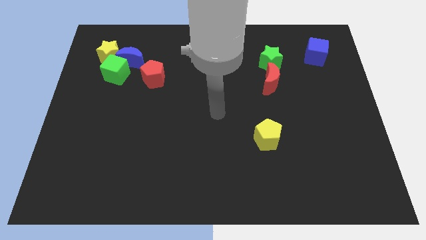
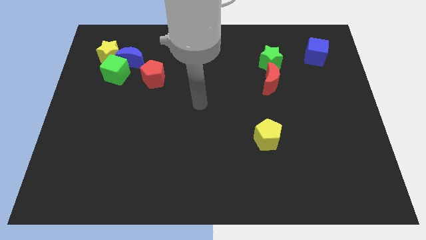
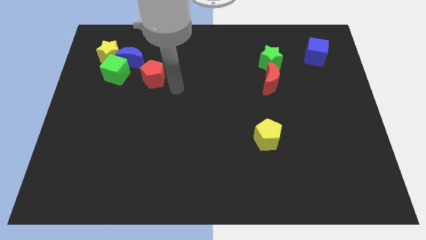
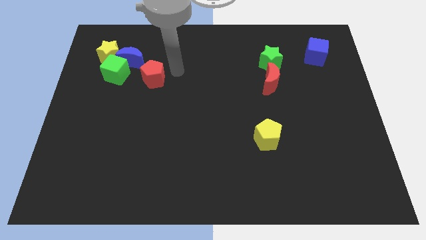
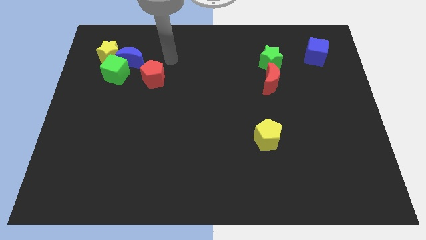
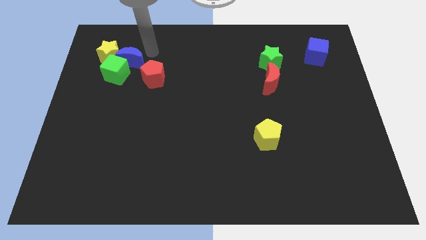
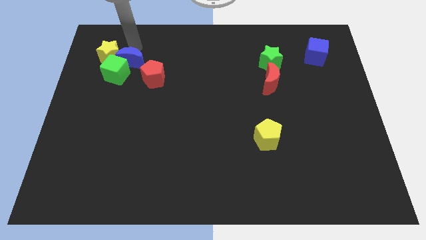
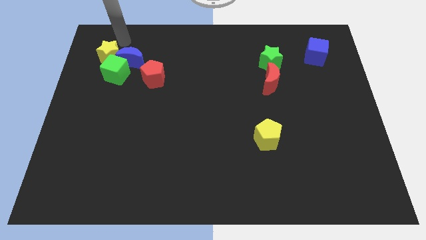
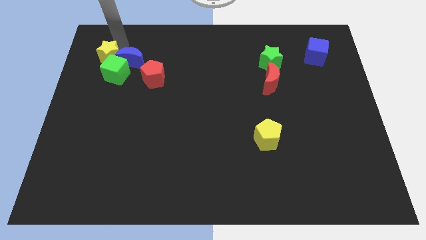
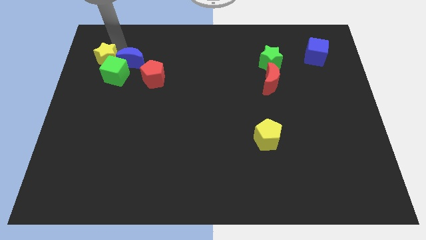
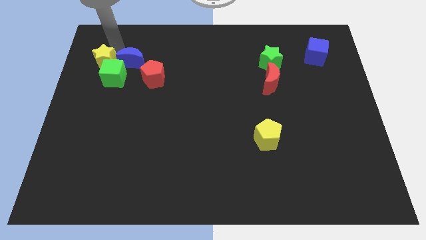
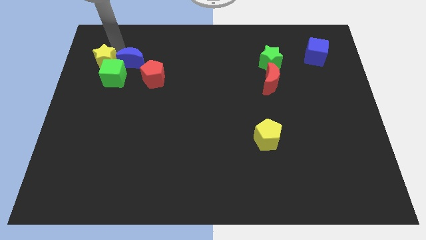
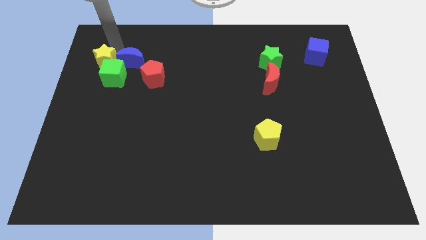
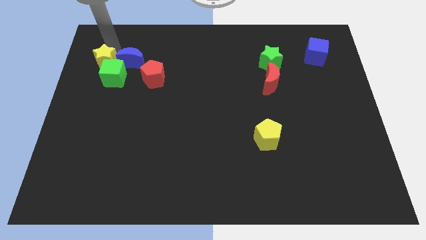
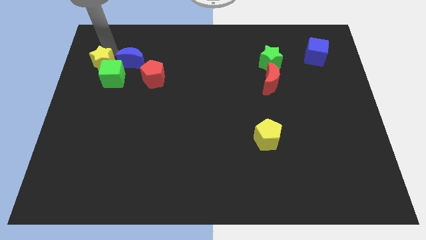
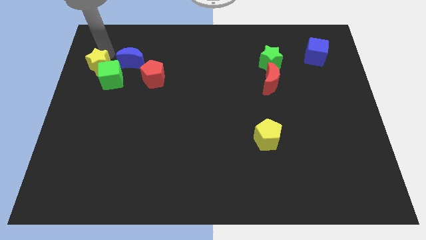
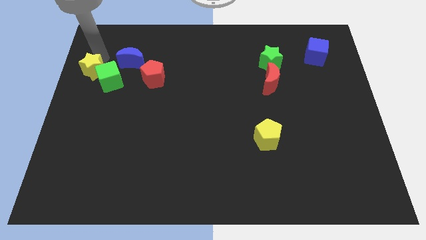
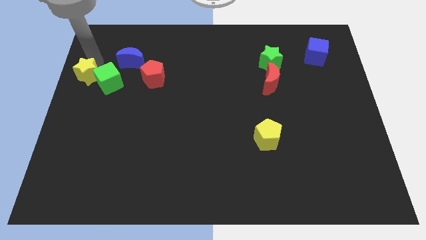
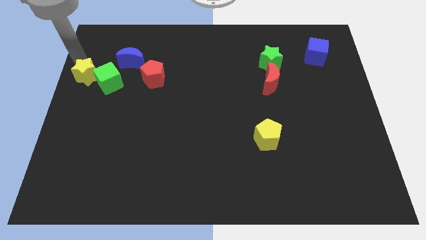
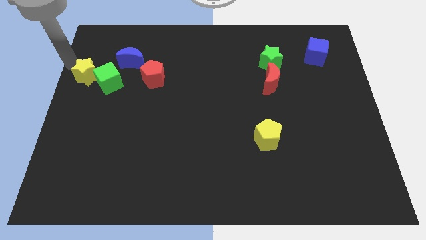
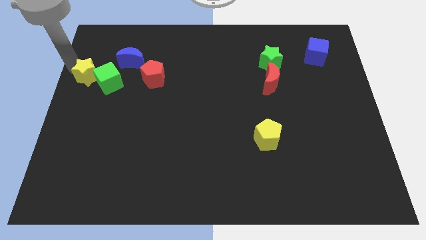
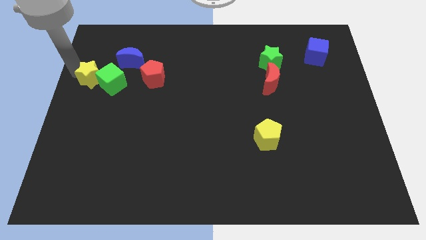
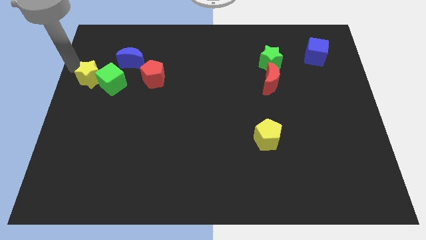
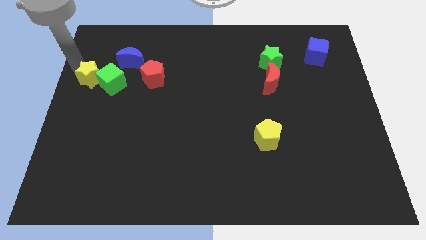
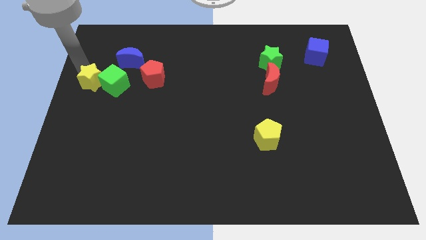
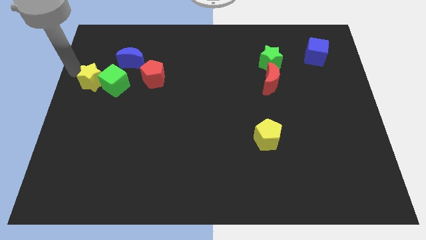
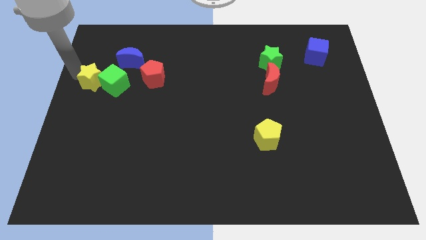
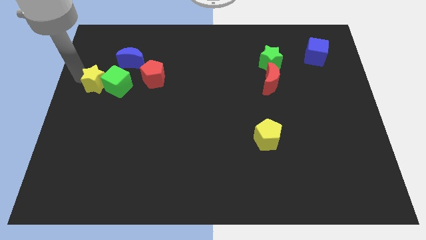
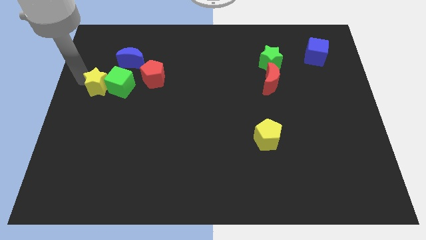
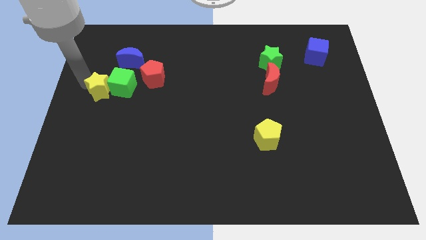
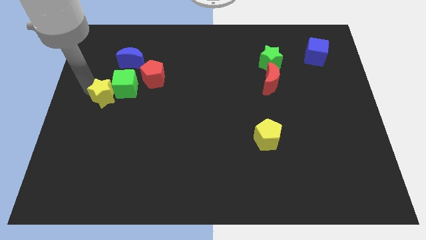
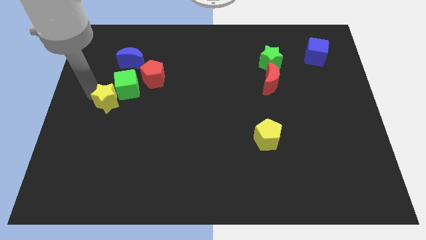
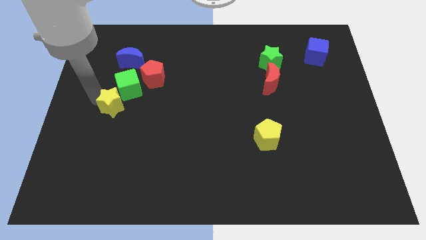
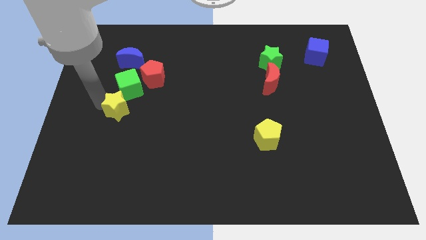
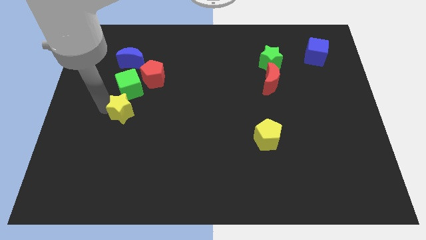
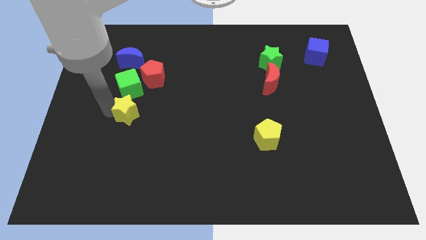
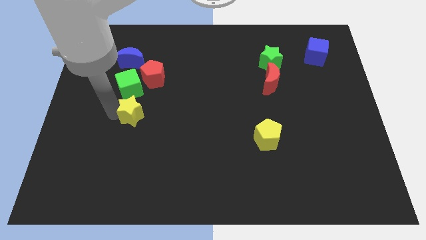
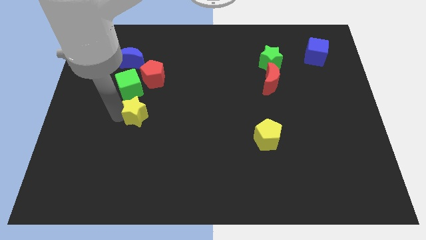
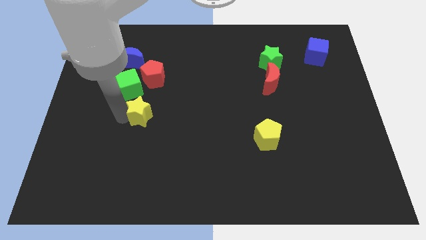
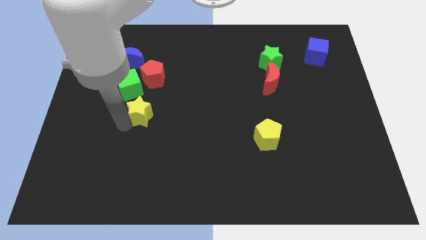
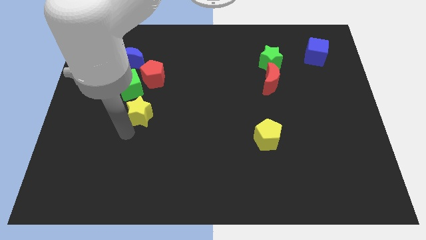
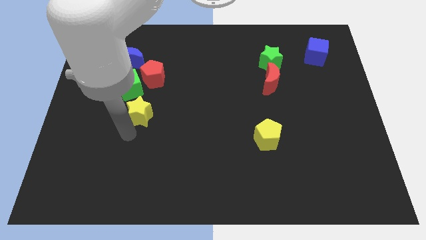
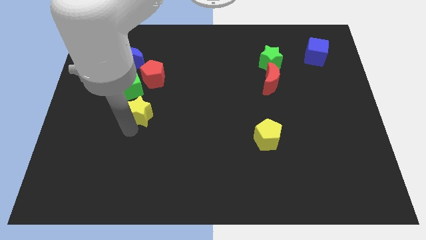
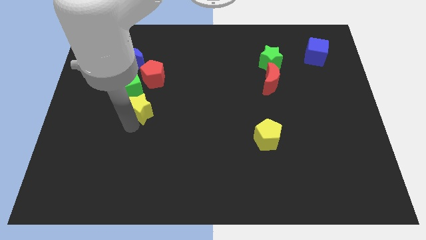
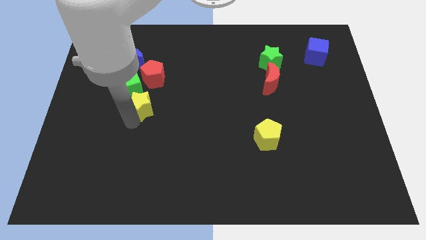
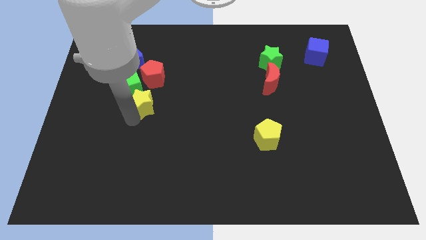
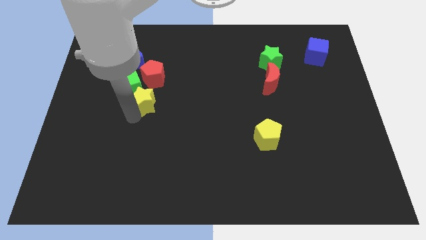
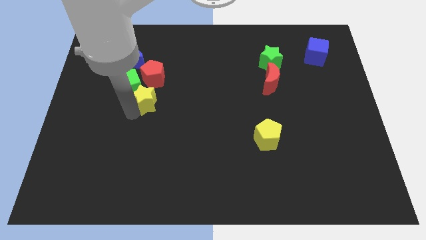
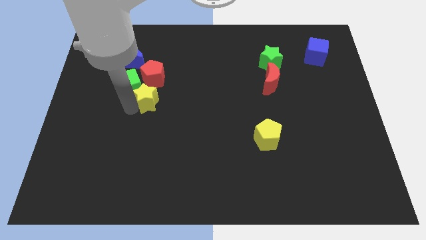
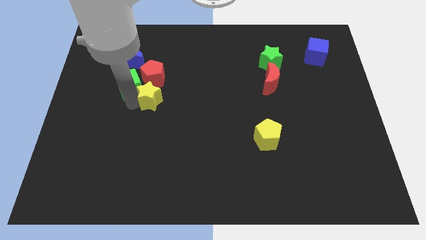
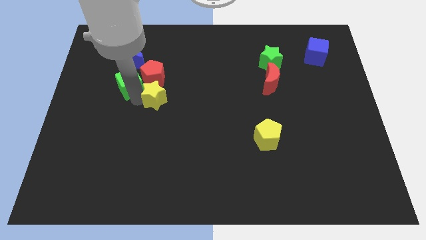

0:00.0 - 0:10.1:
slide the yellow star to the bottom right of the green cube

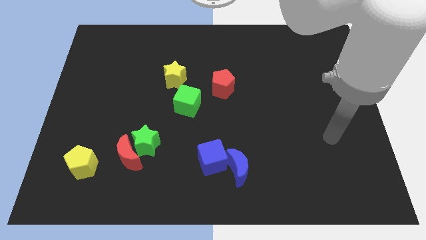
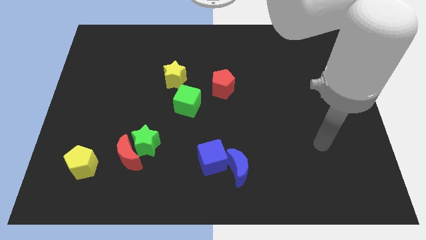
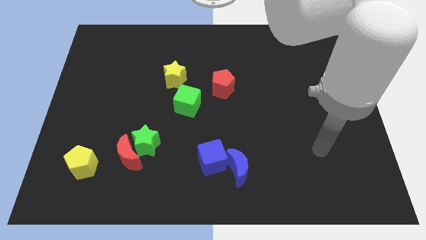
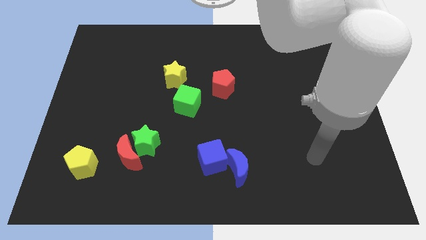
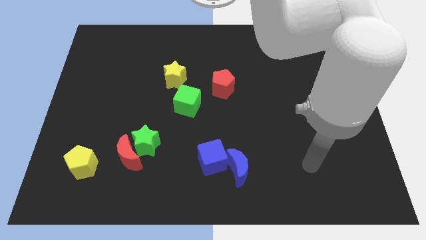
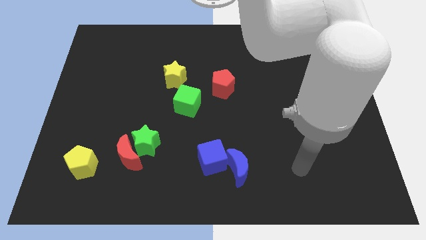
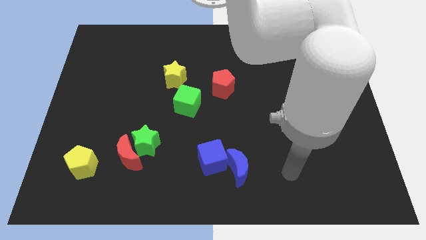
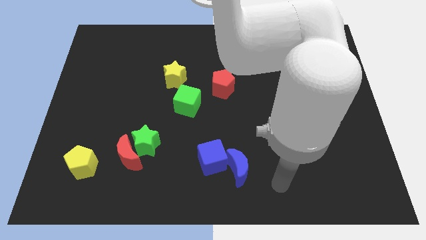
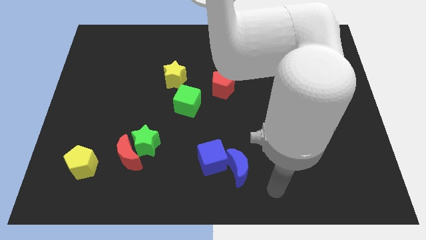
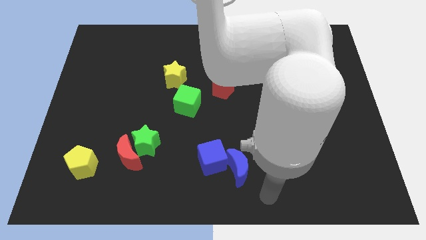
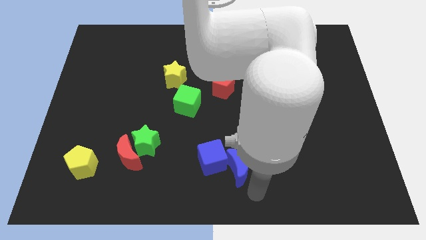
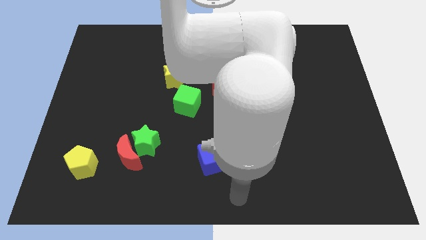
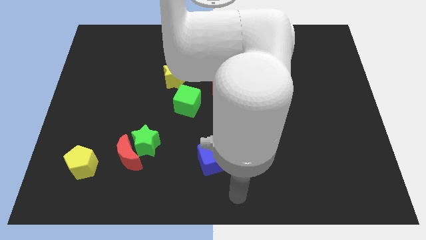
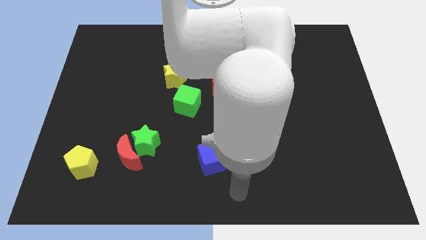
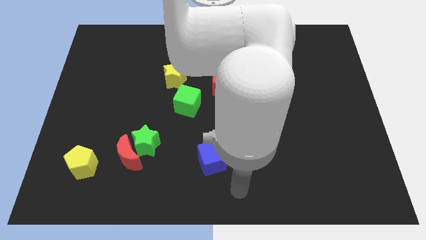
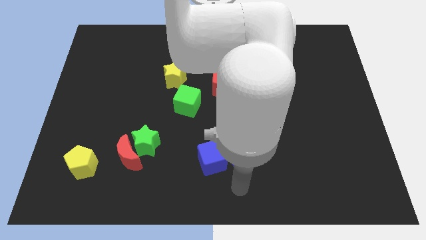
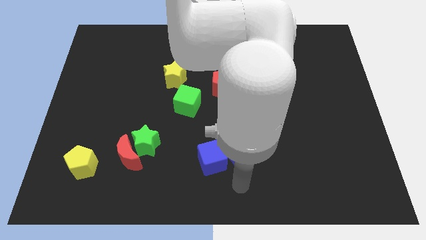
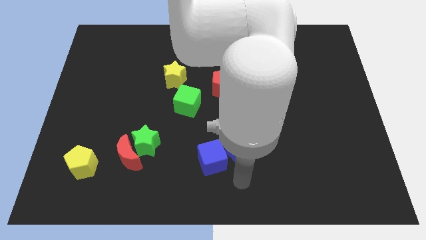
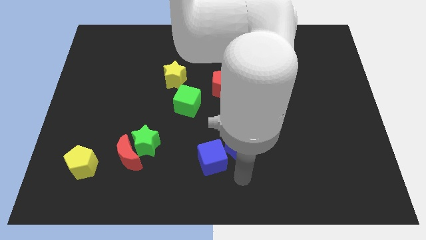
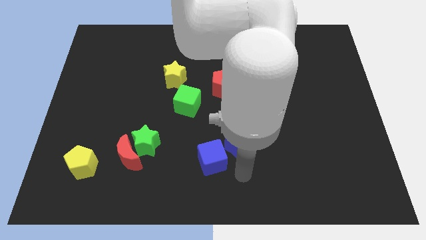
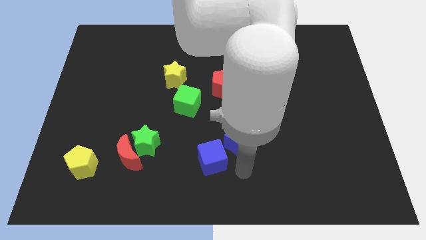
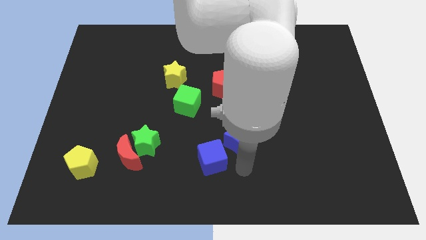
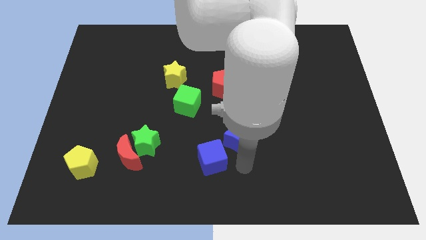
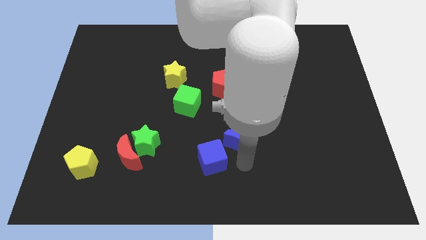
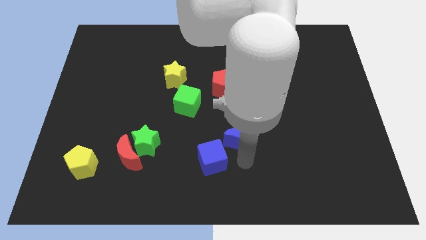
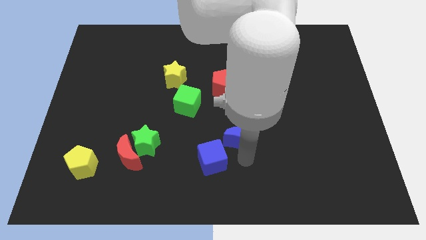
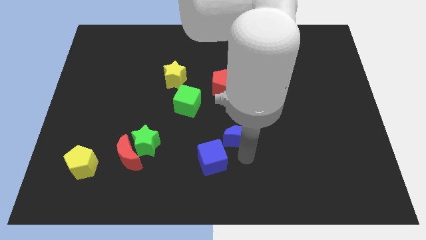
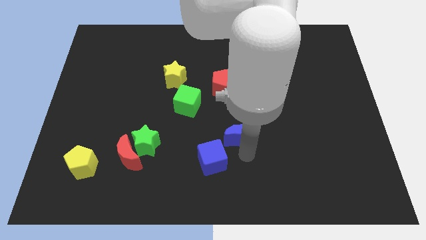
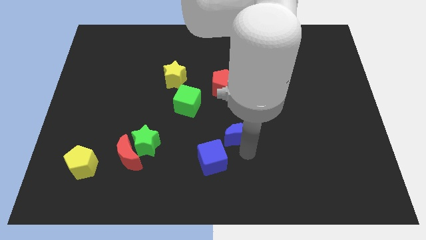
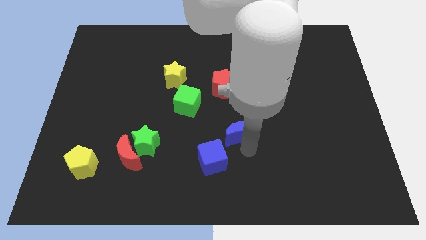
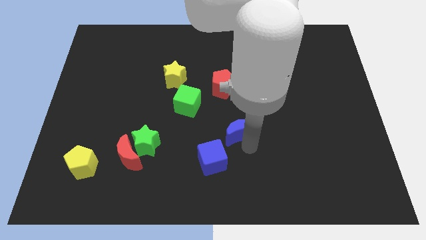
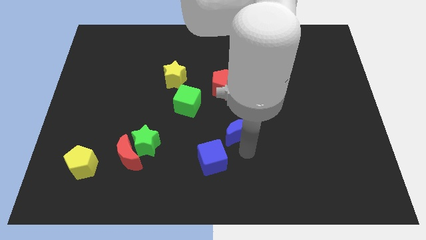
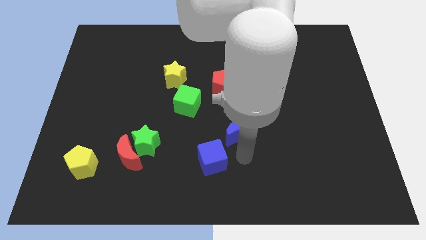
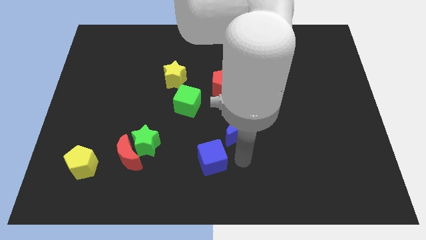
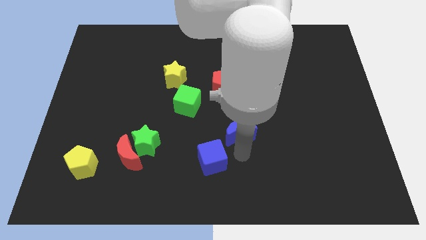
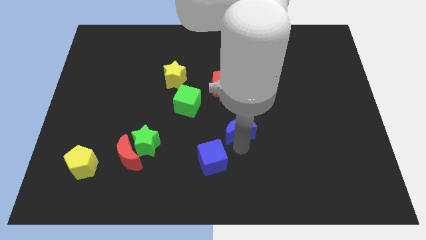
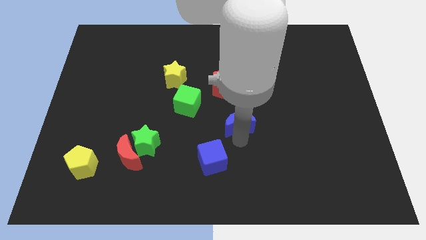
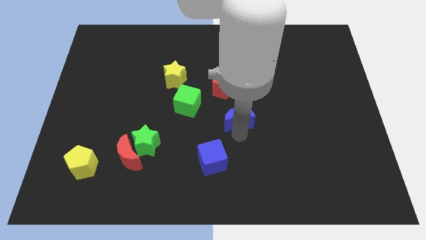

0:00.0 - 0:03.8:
push the blue moon to the bottom right side of the red pentagon
